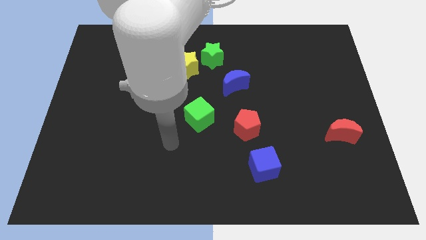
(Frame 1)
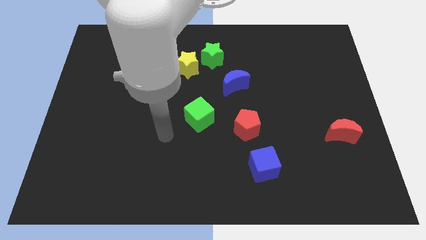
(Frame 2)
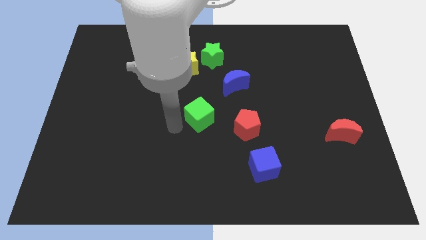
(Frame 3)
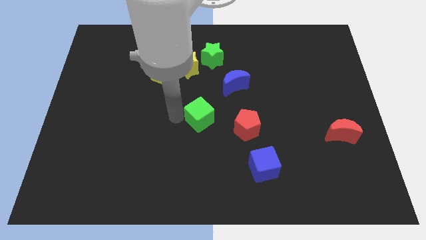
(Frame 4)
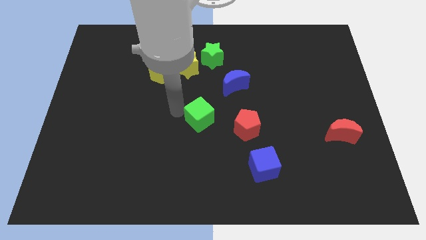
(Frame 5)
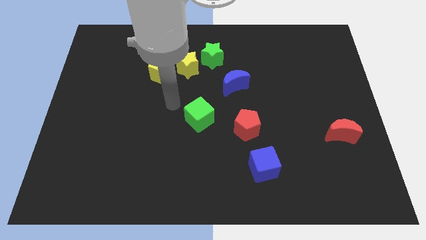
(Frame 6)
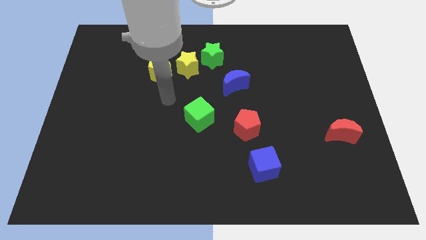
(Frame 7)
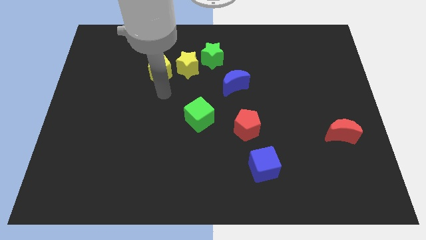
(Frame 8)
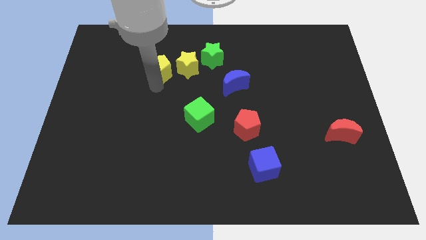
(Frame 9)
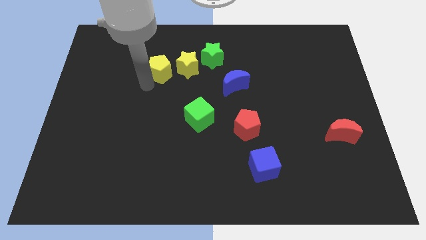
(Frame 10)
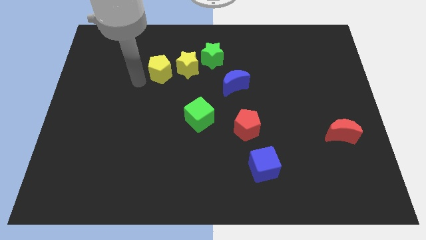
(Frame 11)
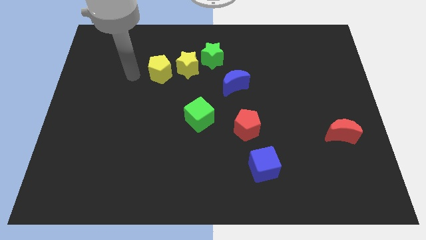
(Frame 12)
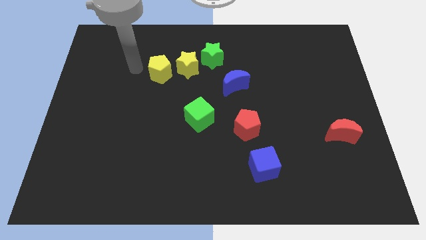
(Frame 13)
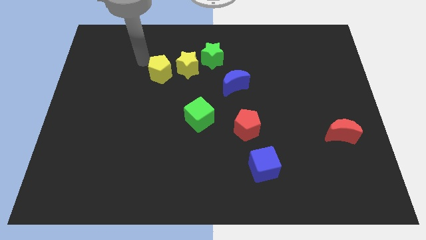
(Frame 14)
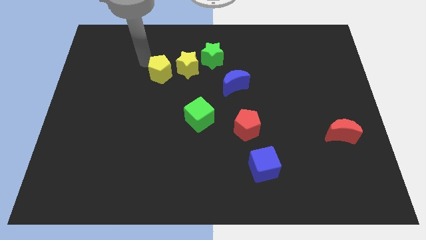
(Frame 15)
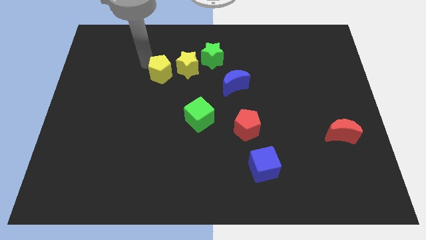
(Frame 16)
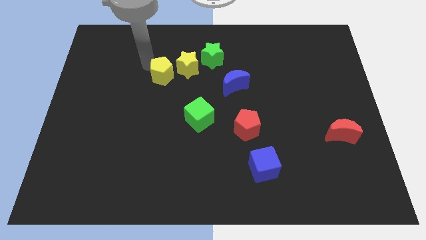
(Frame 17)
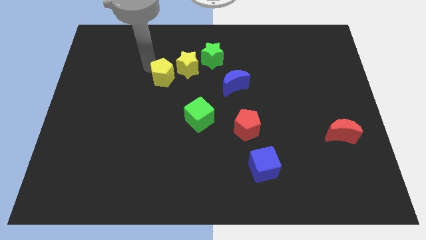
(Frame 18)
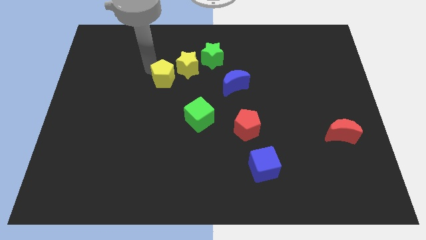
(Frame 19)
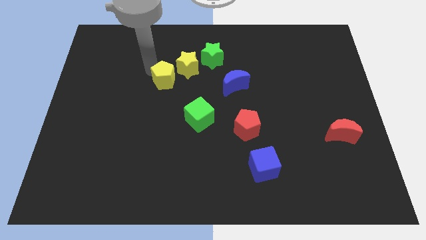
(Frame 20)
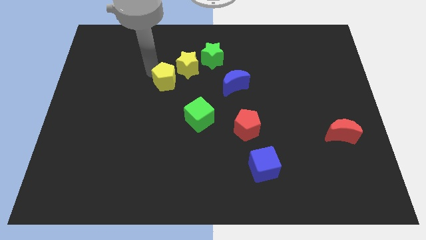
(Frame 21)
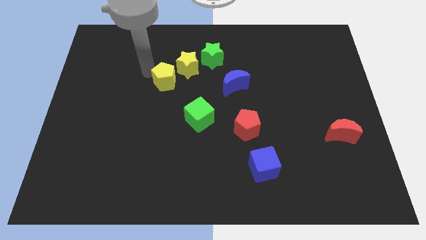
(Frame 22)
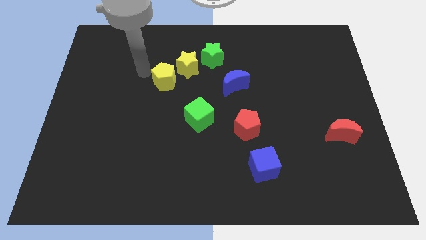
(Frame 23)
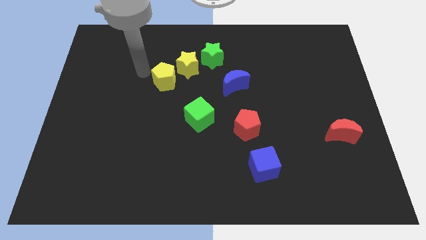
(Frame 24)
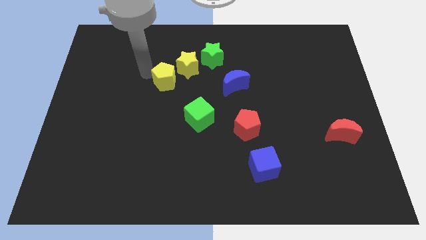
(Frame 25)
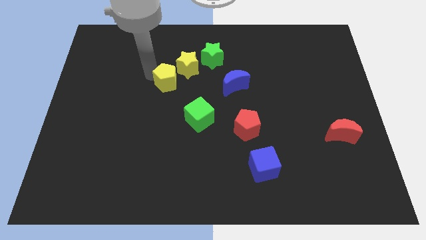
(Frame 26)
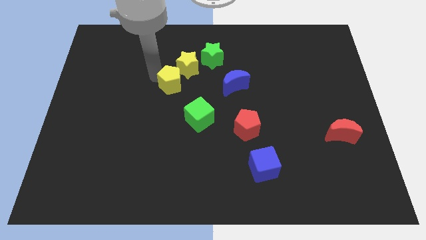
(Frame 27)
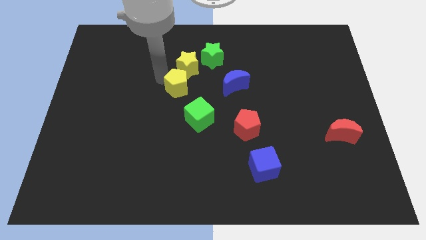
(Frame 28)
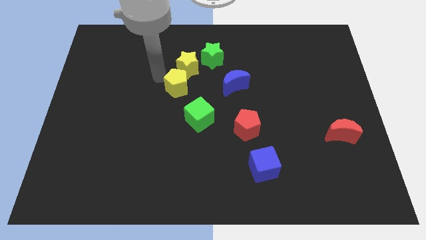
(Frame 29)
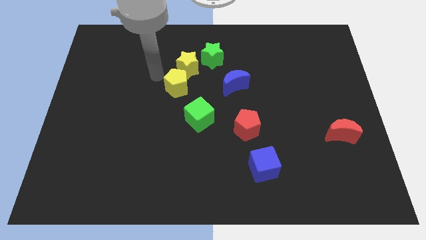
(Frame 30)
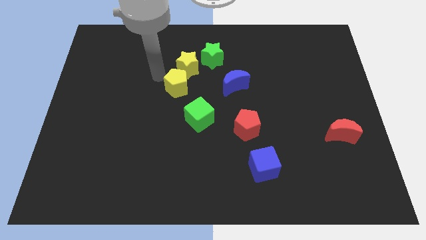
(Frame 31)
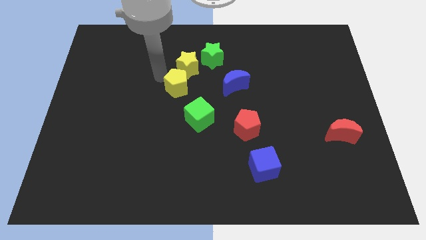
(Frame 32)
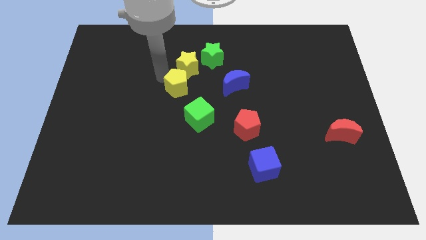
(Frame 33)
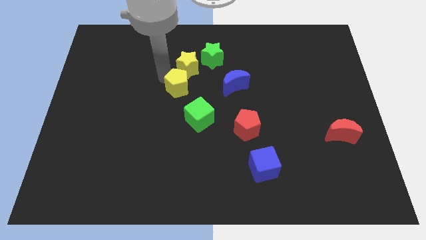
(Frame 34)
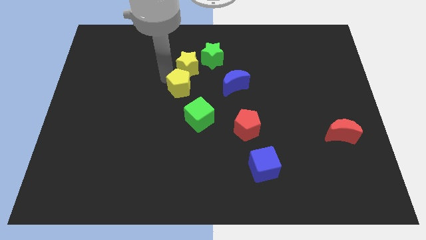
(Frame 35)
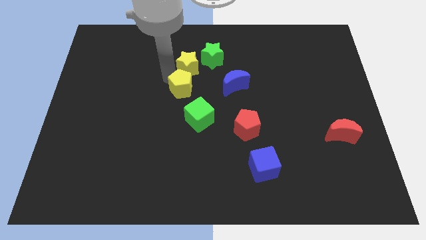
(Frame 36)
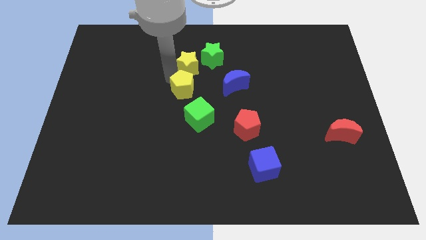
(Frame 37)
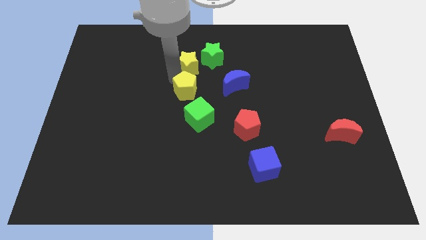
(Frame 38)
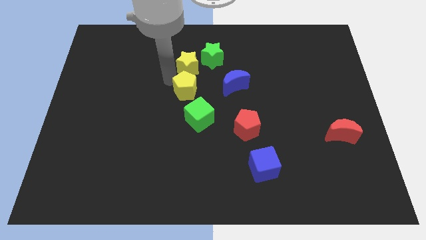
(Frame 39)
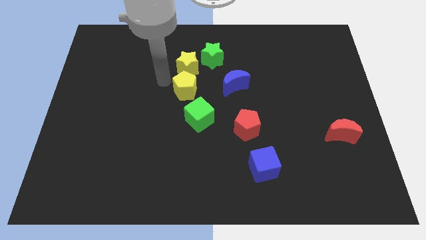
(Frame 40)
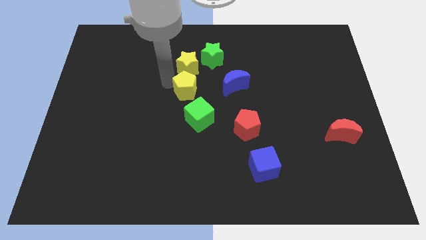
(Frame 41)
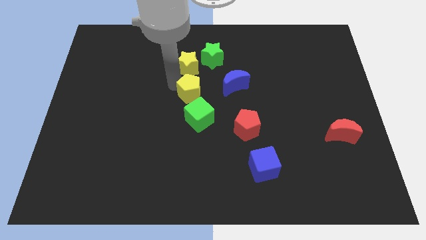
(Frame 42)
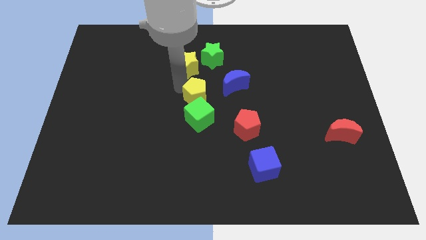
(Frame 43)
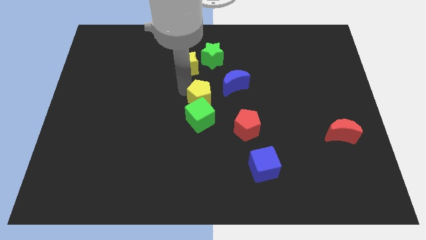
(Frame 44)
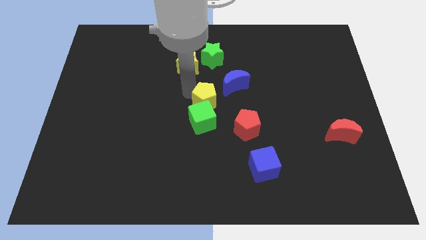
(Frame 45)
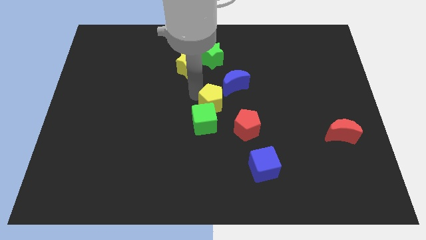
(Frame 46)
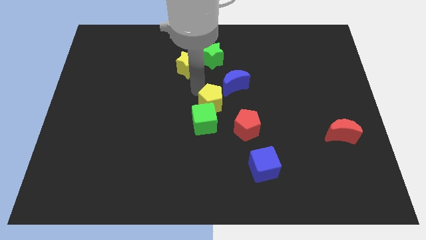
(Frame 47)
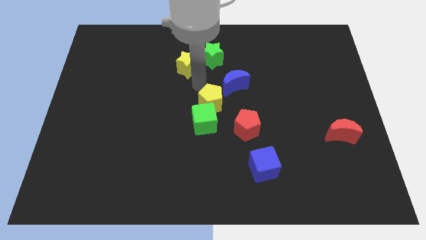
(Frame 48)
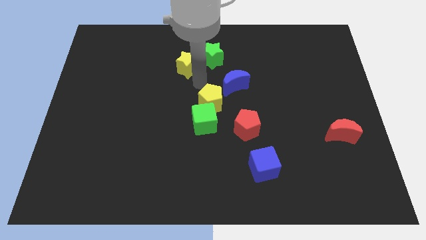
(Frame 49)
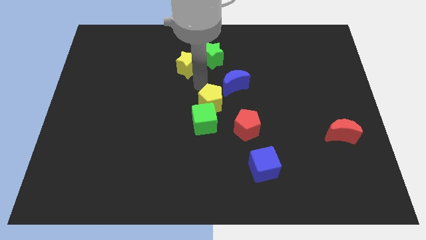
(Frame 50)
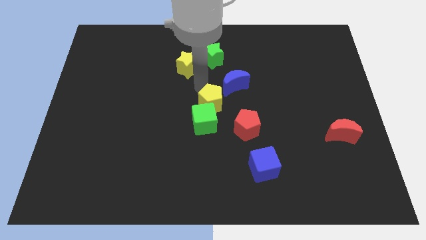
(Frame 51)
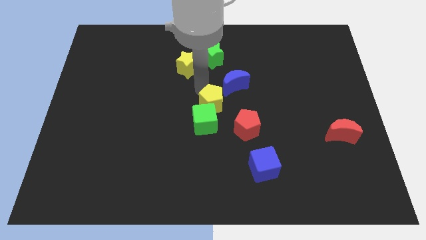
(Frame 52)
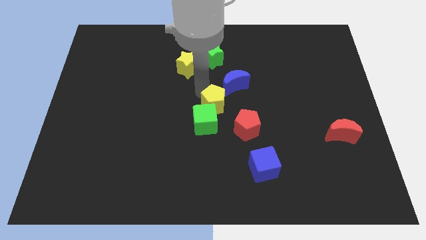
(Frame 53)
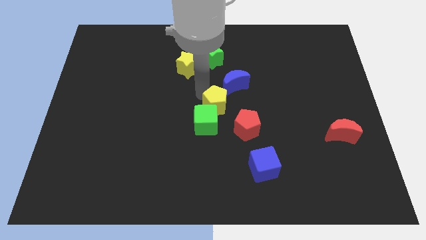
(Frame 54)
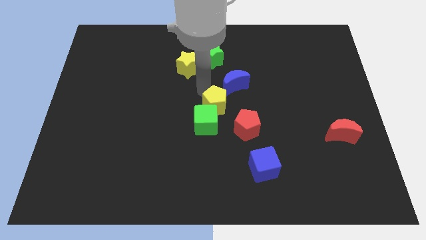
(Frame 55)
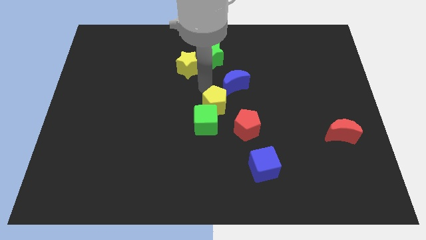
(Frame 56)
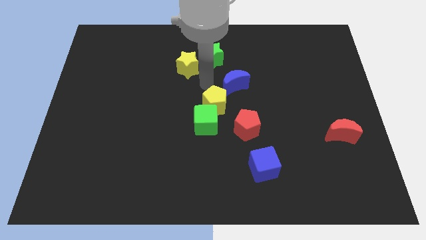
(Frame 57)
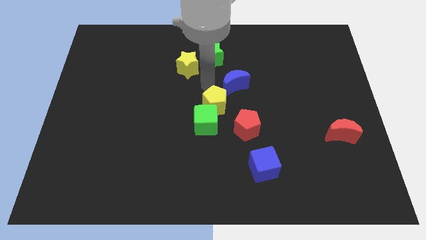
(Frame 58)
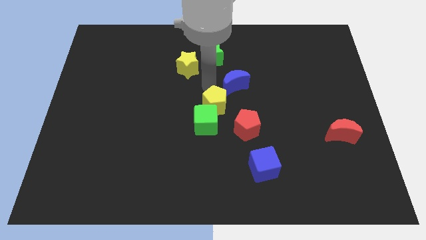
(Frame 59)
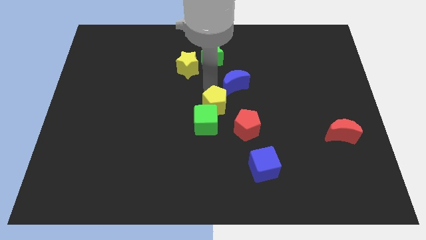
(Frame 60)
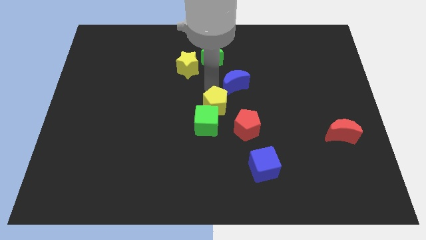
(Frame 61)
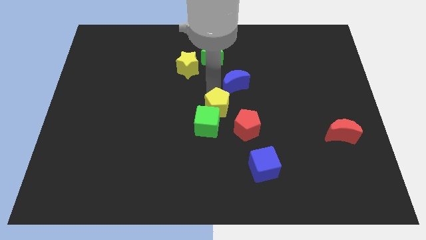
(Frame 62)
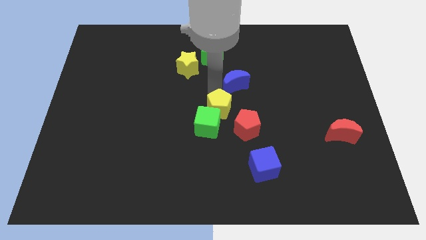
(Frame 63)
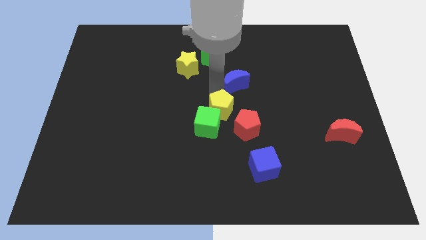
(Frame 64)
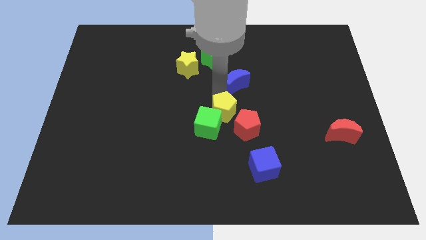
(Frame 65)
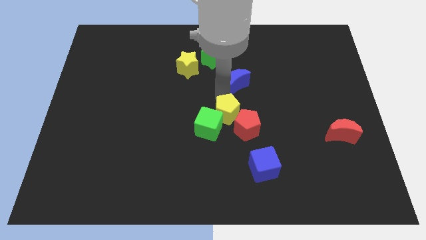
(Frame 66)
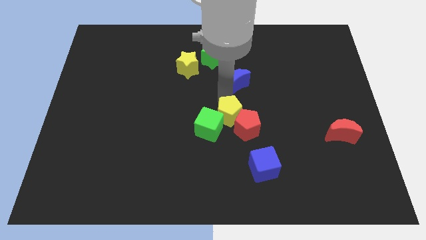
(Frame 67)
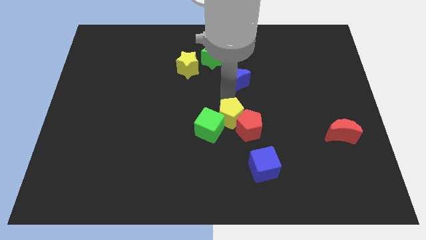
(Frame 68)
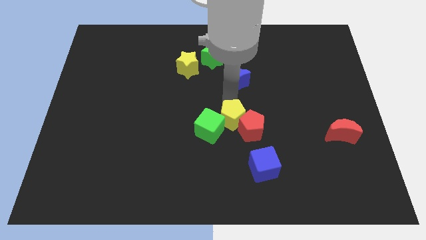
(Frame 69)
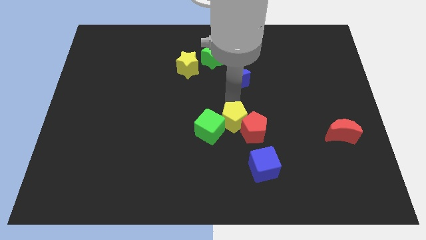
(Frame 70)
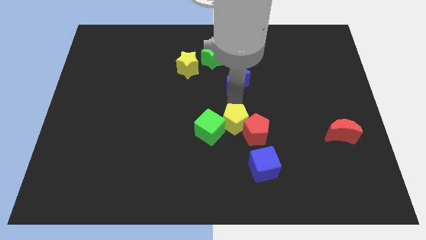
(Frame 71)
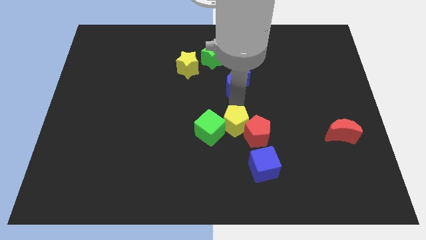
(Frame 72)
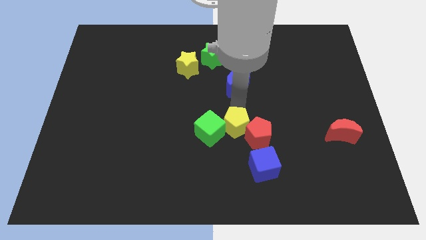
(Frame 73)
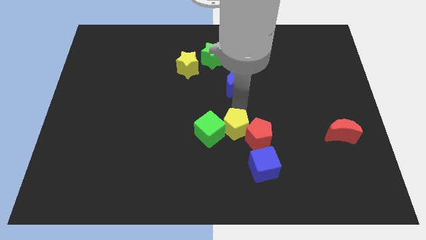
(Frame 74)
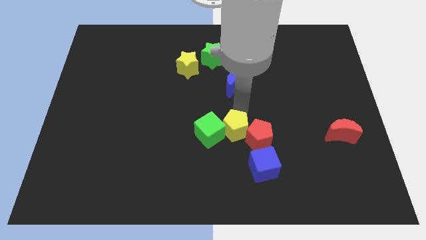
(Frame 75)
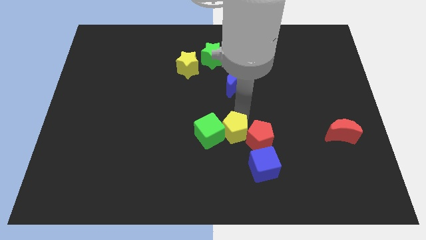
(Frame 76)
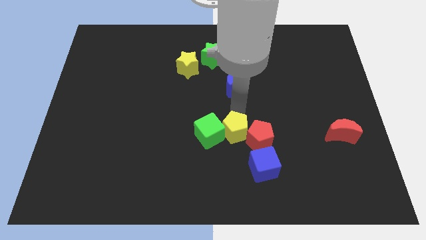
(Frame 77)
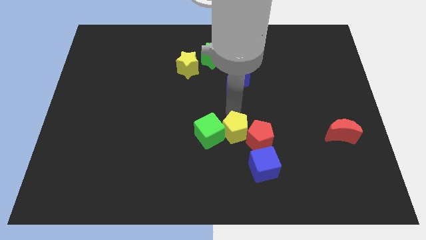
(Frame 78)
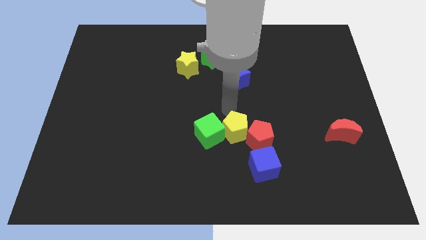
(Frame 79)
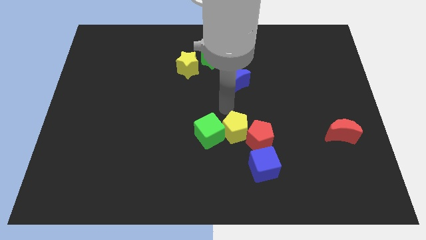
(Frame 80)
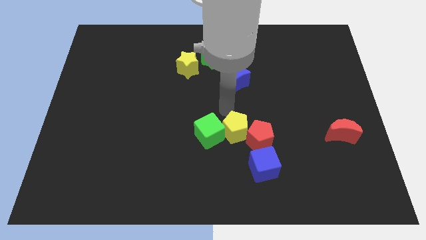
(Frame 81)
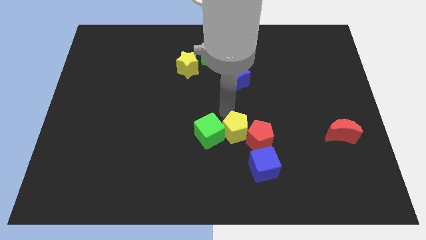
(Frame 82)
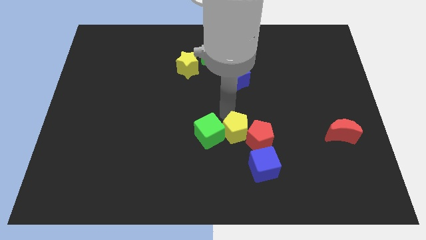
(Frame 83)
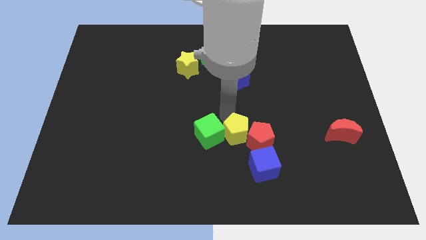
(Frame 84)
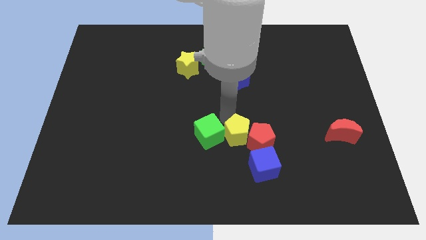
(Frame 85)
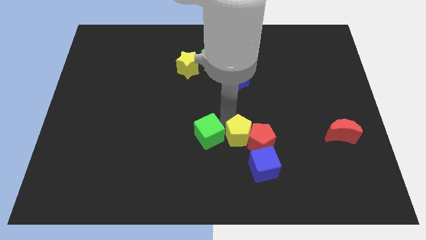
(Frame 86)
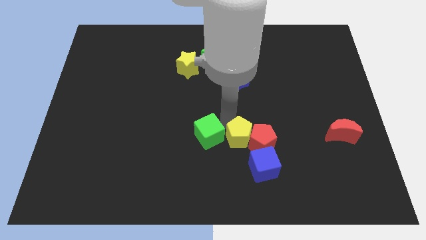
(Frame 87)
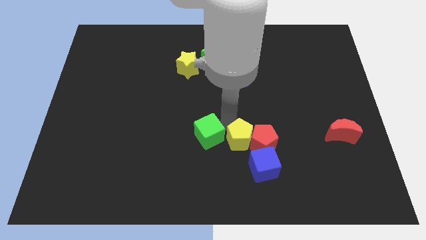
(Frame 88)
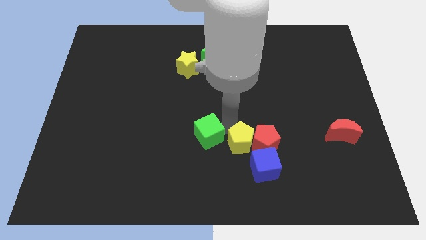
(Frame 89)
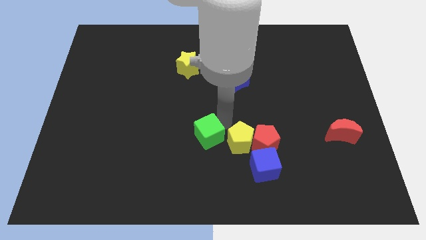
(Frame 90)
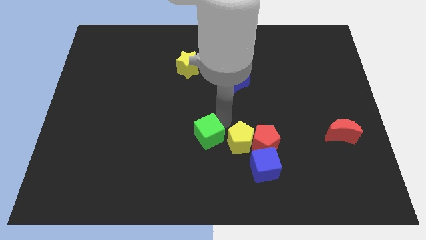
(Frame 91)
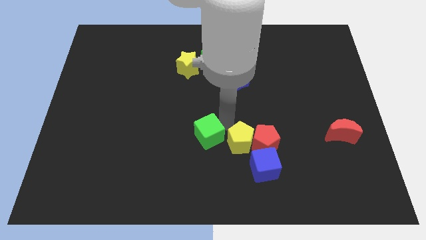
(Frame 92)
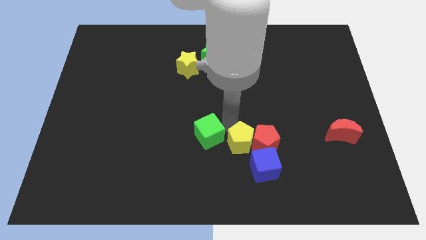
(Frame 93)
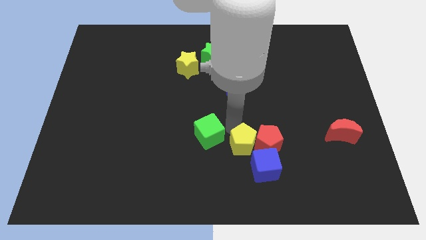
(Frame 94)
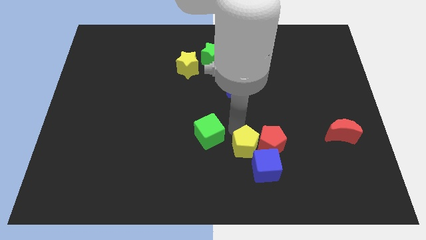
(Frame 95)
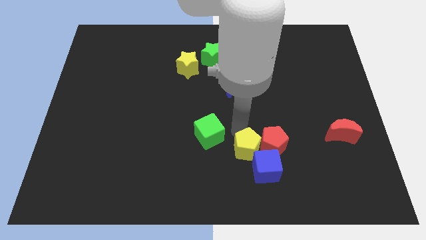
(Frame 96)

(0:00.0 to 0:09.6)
slide the yellow pentagon to the blue cube
